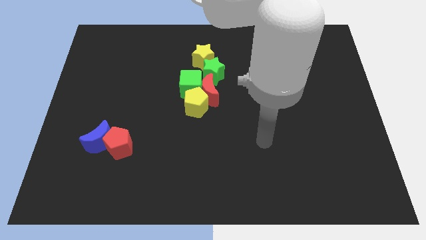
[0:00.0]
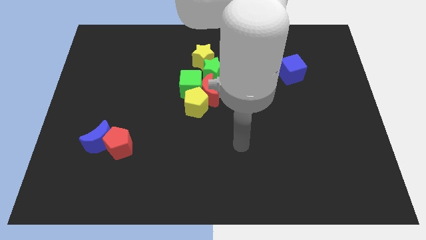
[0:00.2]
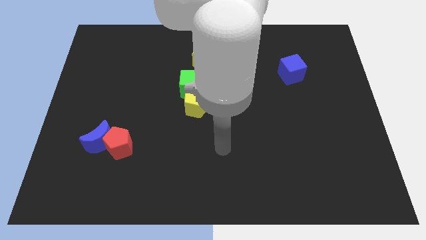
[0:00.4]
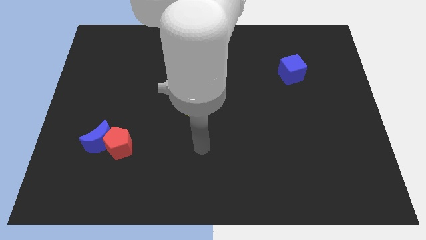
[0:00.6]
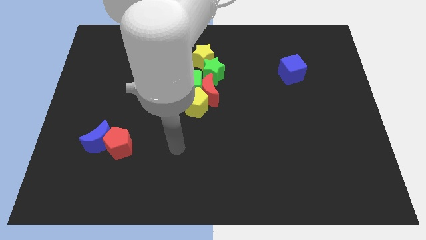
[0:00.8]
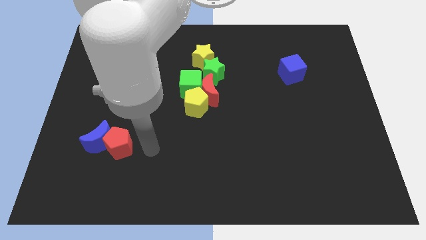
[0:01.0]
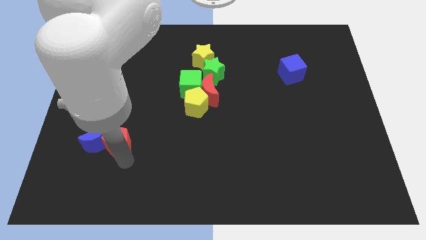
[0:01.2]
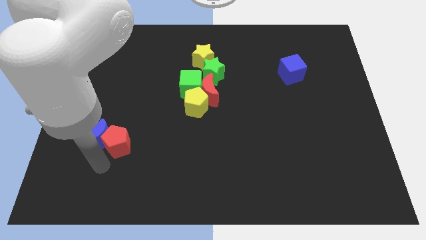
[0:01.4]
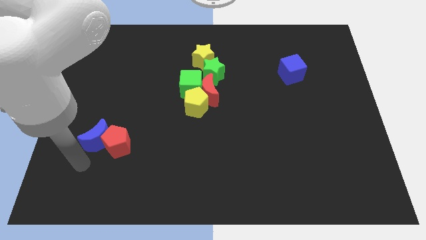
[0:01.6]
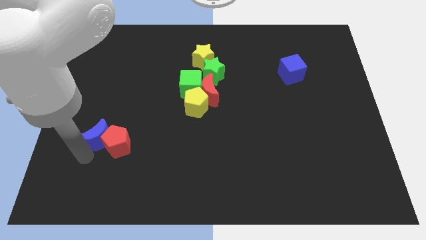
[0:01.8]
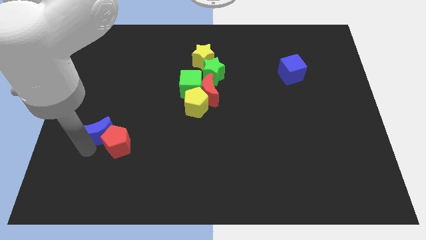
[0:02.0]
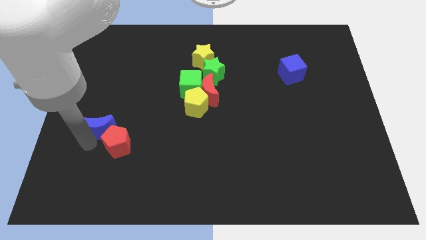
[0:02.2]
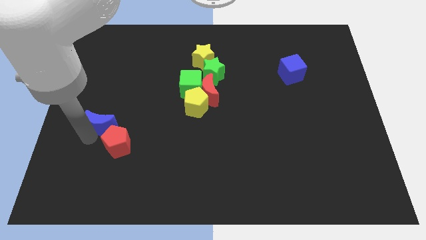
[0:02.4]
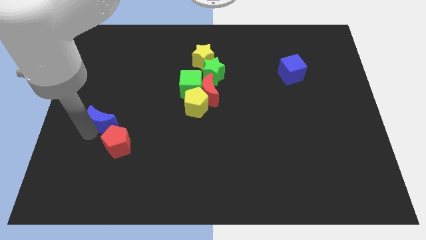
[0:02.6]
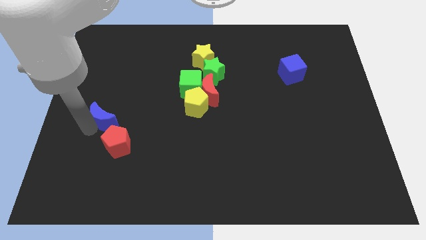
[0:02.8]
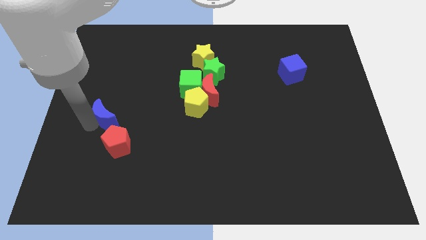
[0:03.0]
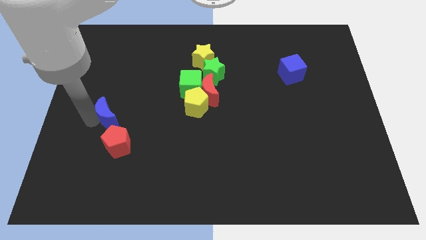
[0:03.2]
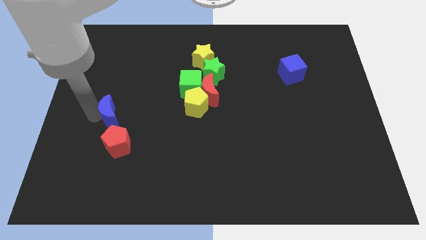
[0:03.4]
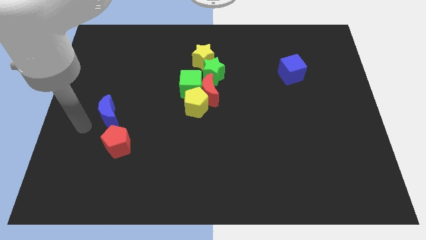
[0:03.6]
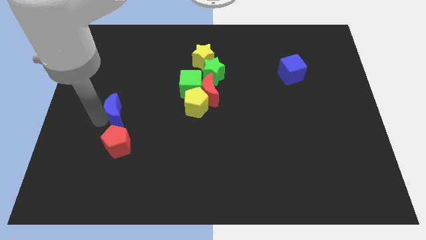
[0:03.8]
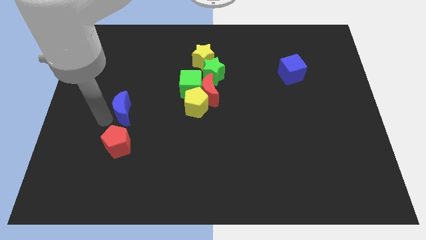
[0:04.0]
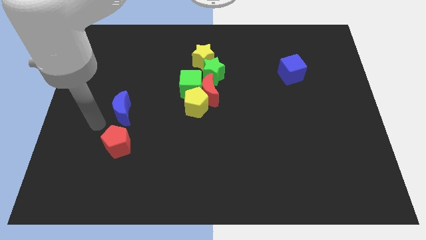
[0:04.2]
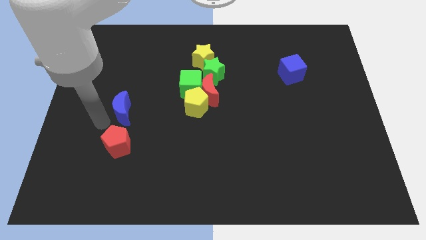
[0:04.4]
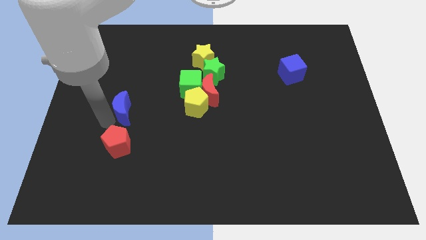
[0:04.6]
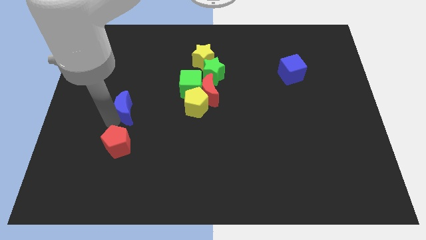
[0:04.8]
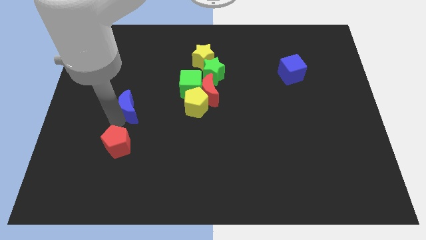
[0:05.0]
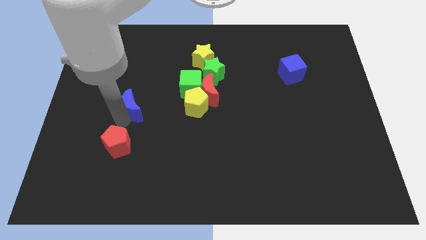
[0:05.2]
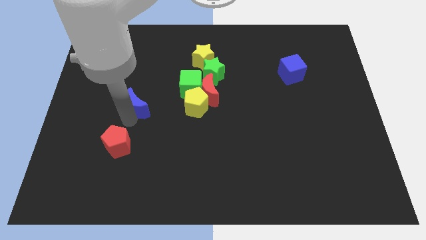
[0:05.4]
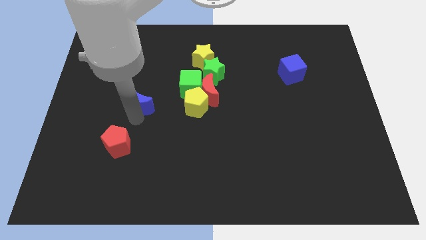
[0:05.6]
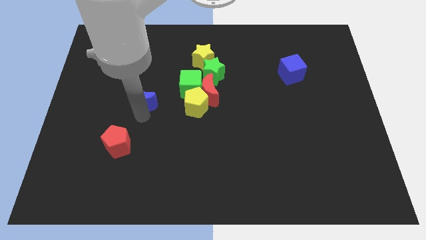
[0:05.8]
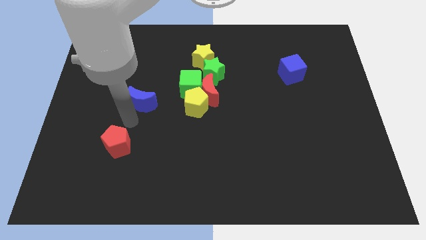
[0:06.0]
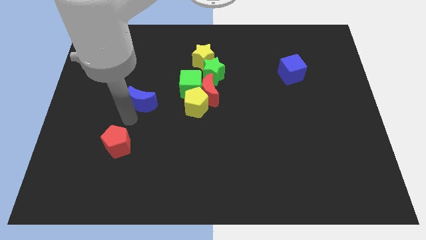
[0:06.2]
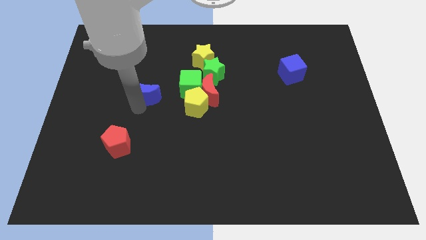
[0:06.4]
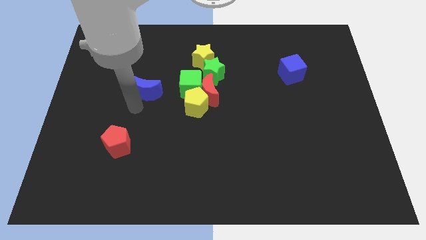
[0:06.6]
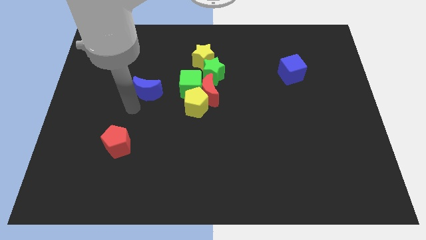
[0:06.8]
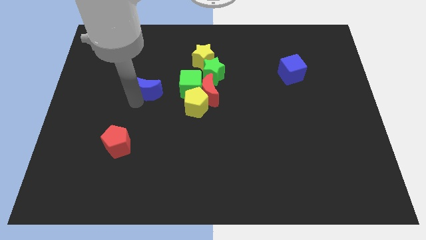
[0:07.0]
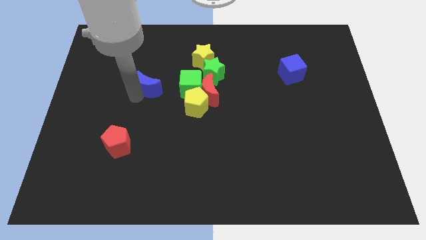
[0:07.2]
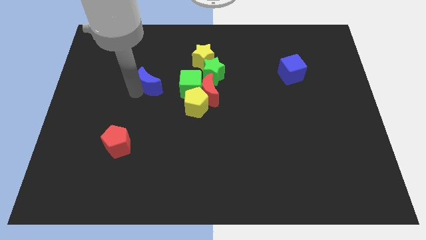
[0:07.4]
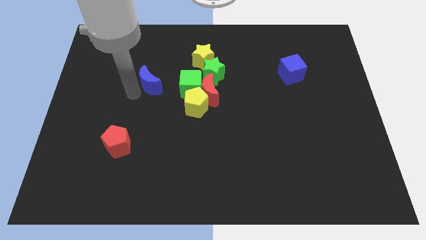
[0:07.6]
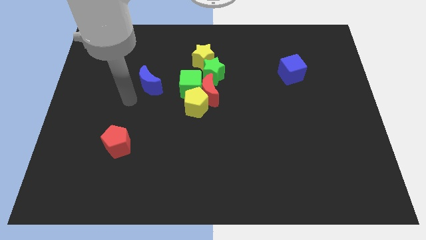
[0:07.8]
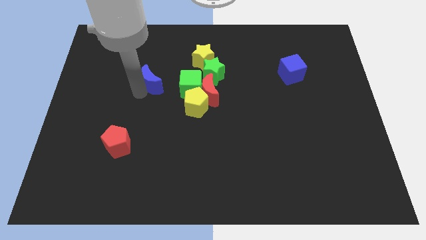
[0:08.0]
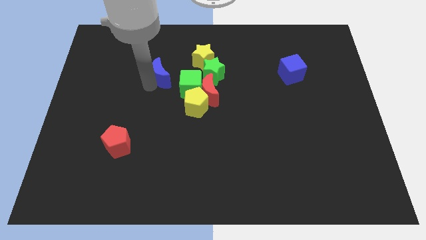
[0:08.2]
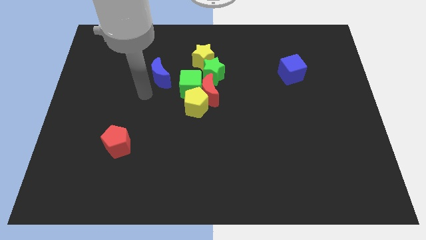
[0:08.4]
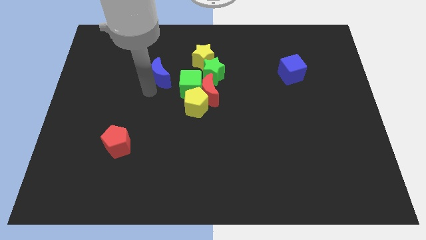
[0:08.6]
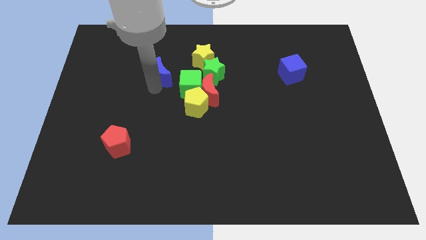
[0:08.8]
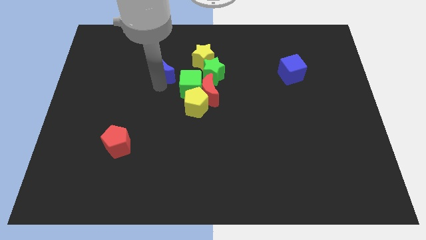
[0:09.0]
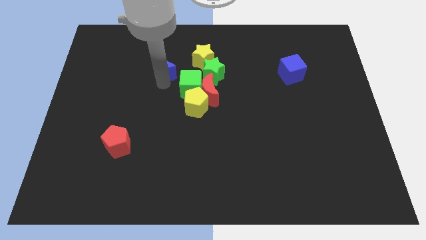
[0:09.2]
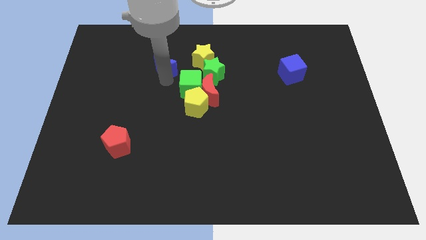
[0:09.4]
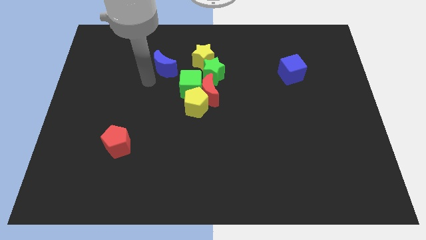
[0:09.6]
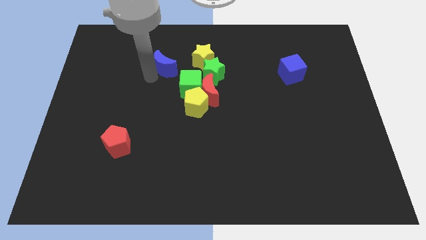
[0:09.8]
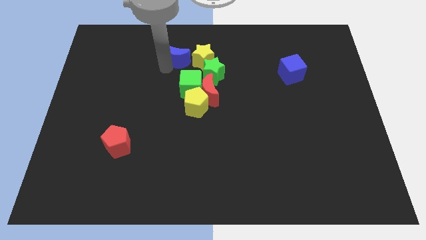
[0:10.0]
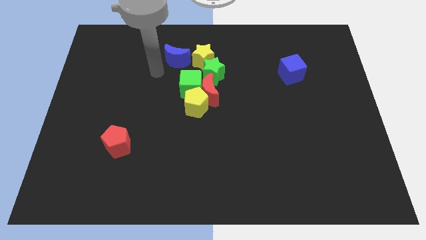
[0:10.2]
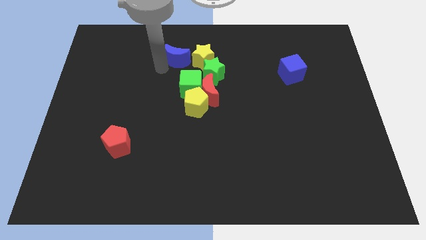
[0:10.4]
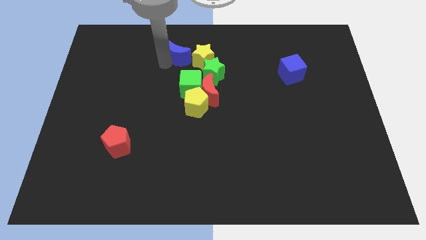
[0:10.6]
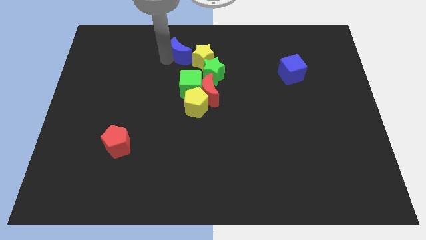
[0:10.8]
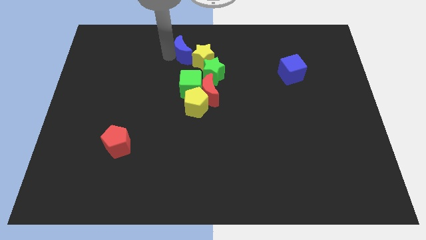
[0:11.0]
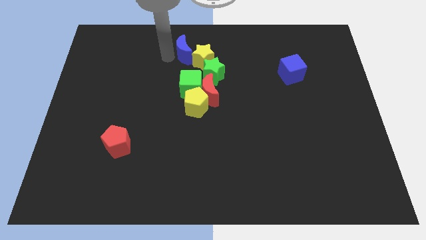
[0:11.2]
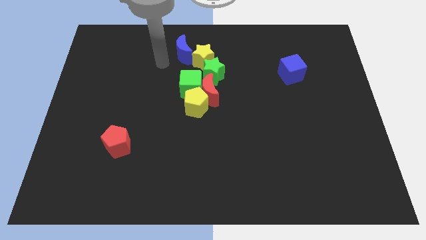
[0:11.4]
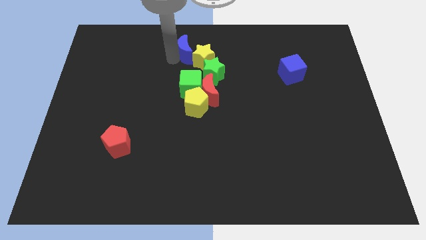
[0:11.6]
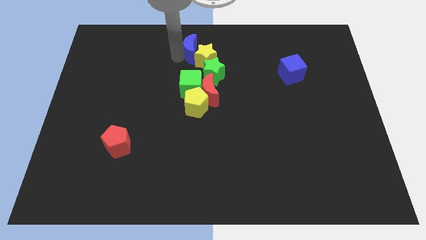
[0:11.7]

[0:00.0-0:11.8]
push the blue moon to the top side

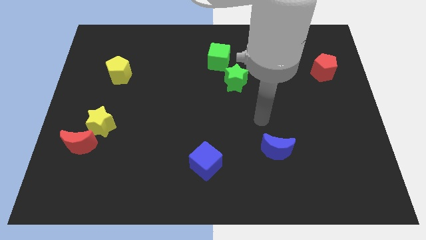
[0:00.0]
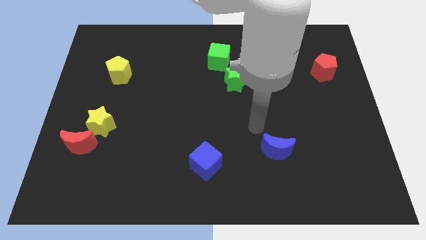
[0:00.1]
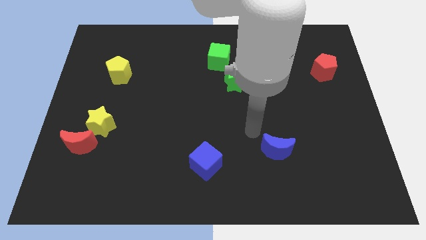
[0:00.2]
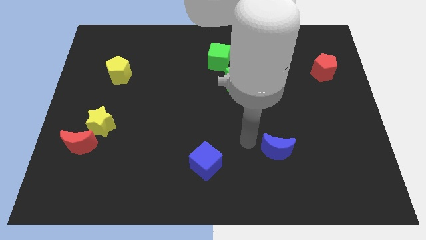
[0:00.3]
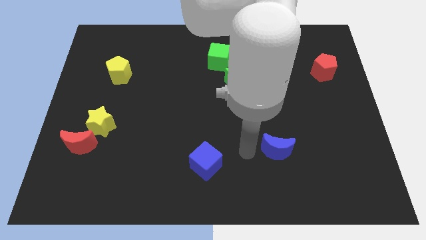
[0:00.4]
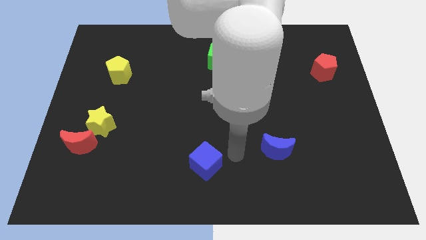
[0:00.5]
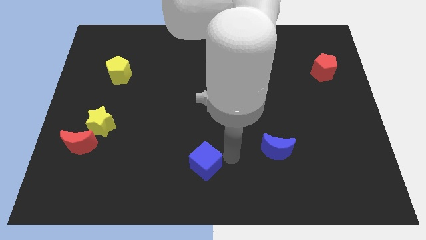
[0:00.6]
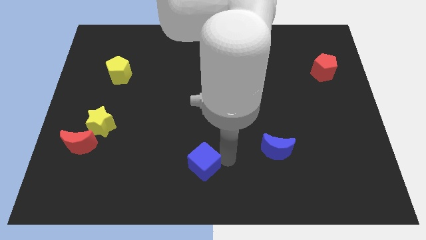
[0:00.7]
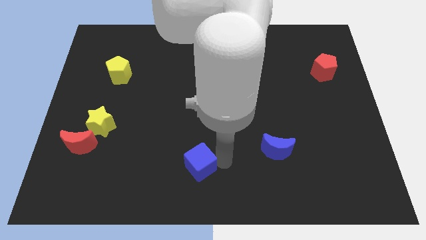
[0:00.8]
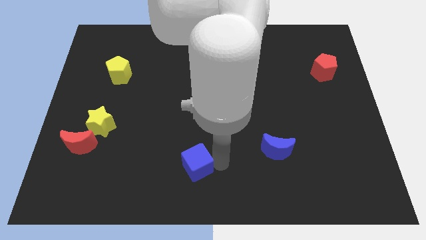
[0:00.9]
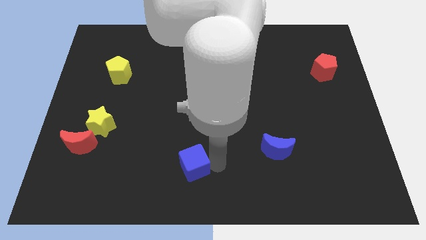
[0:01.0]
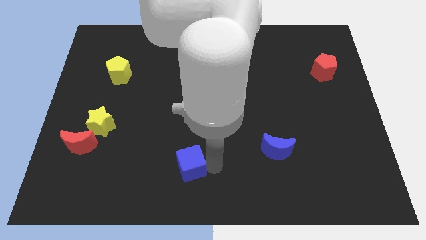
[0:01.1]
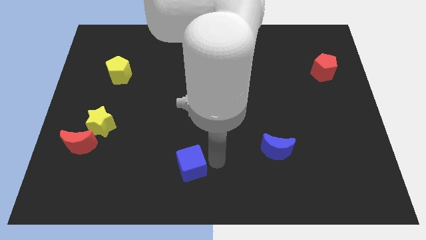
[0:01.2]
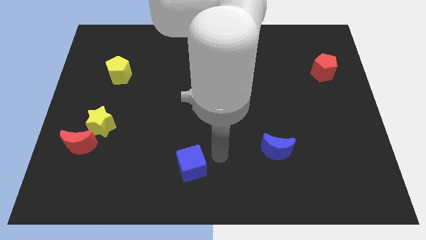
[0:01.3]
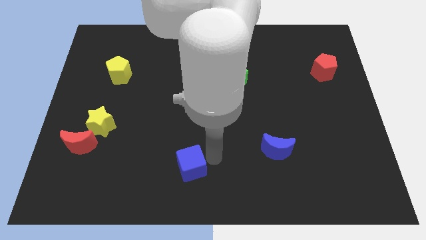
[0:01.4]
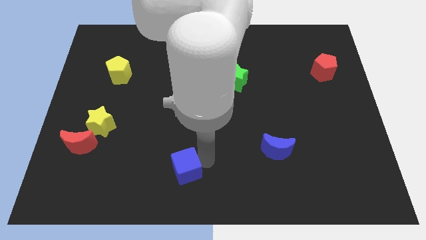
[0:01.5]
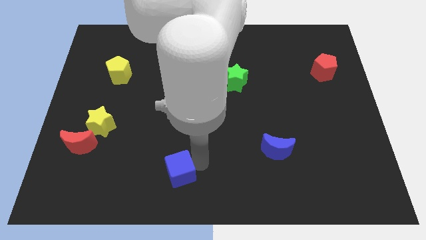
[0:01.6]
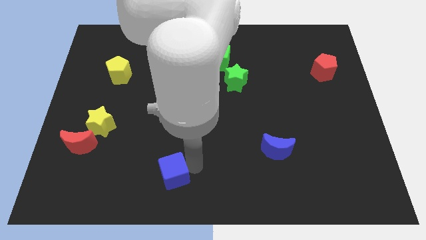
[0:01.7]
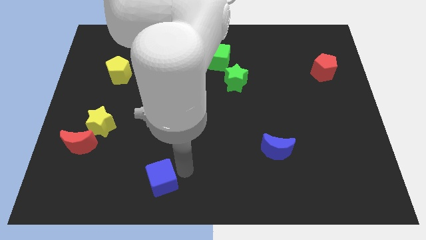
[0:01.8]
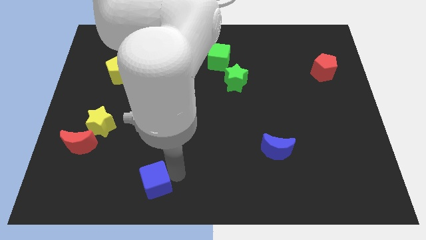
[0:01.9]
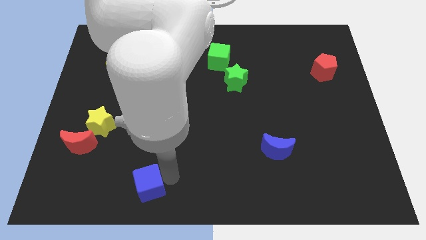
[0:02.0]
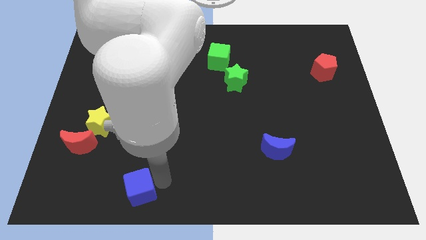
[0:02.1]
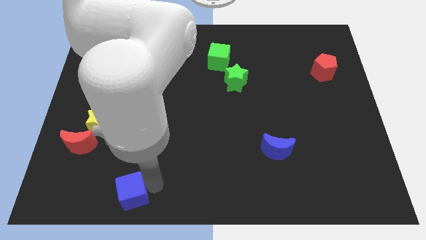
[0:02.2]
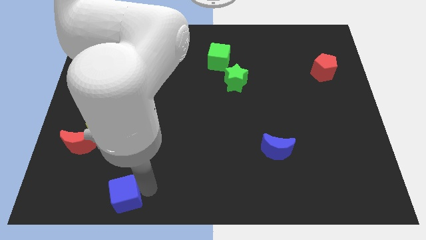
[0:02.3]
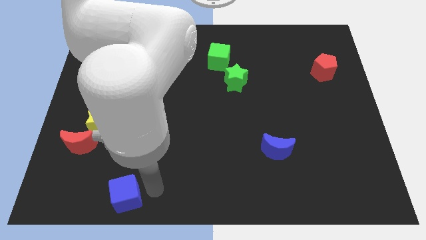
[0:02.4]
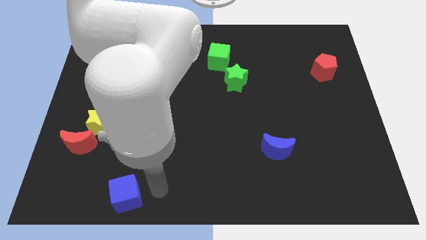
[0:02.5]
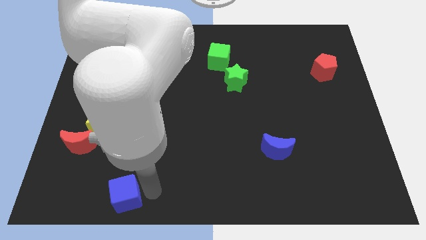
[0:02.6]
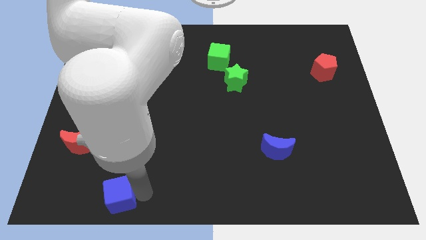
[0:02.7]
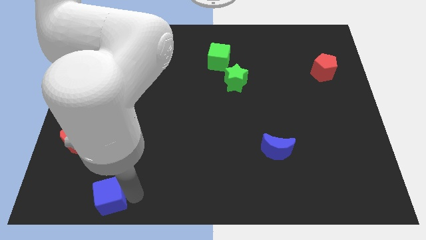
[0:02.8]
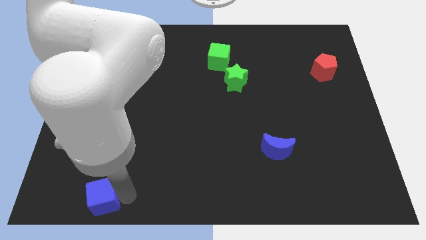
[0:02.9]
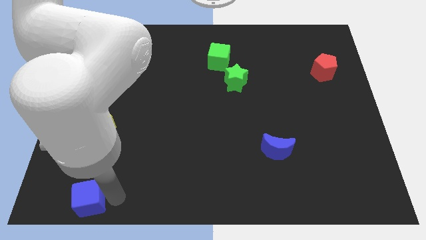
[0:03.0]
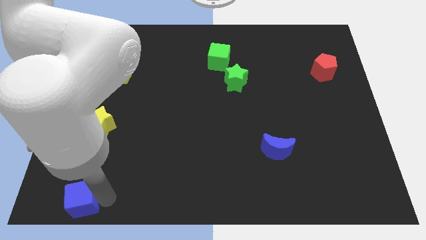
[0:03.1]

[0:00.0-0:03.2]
push the blue cube to the lower left corner
